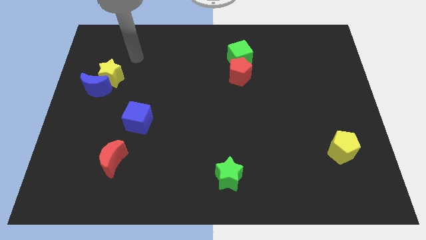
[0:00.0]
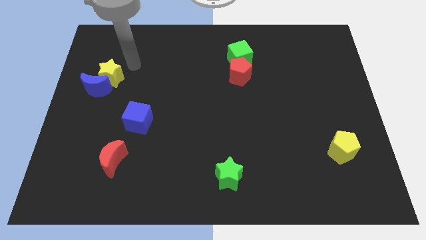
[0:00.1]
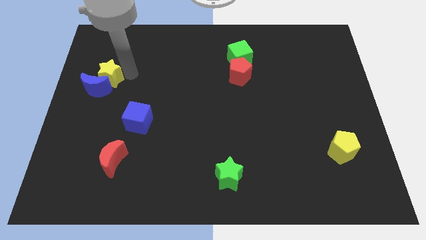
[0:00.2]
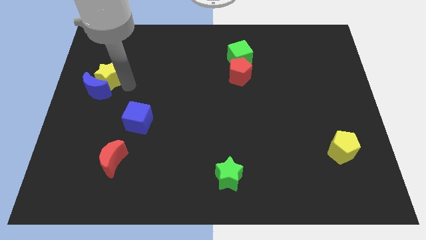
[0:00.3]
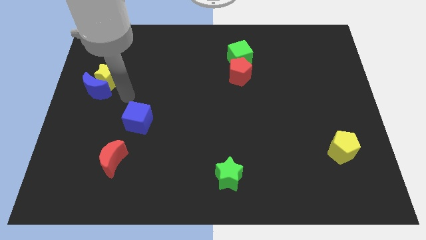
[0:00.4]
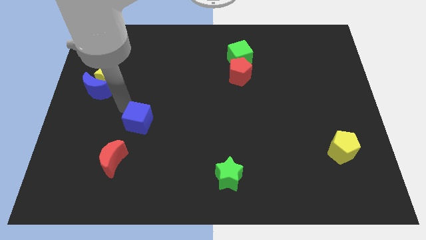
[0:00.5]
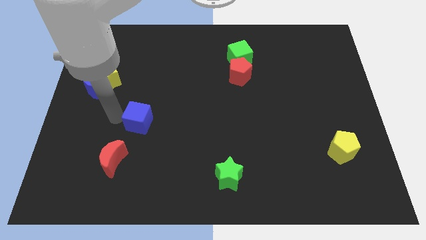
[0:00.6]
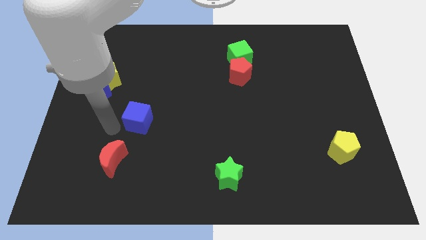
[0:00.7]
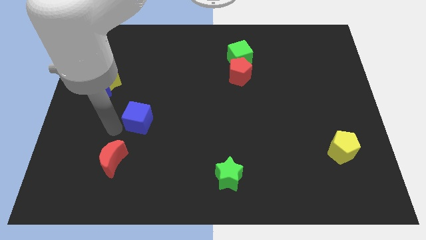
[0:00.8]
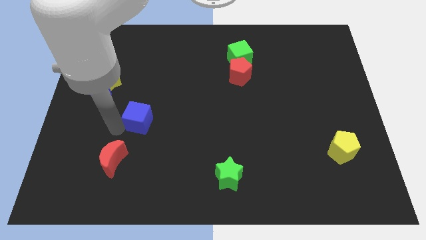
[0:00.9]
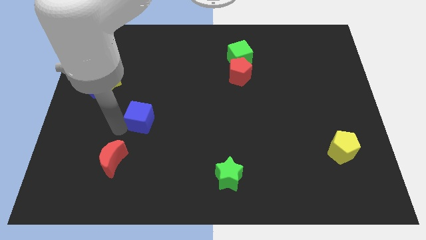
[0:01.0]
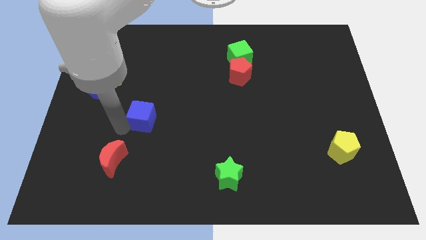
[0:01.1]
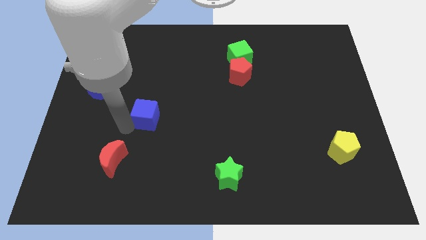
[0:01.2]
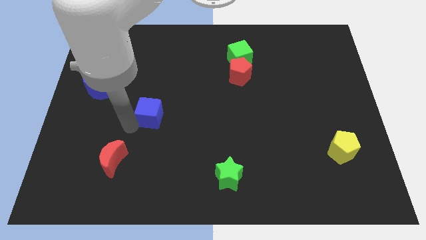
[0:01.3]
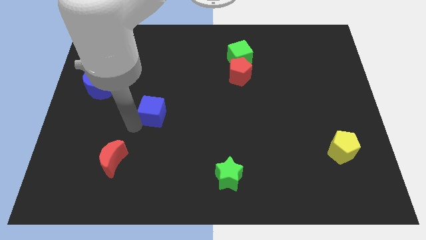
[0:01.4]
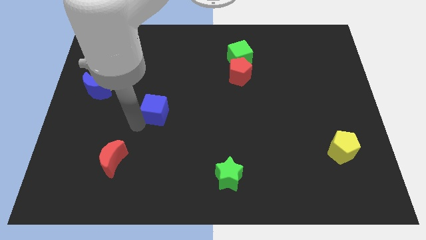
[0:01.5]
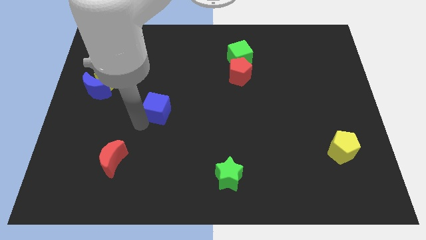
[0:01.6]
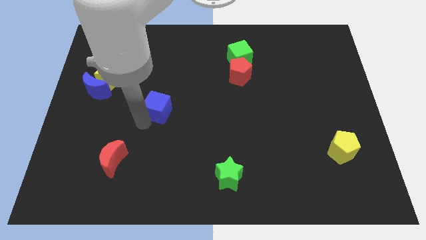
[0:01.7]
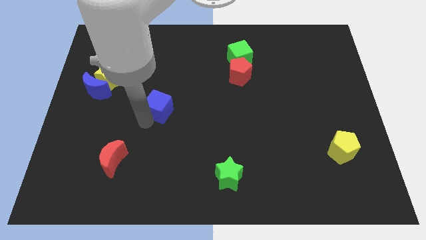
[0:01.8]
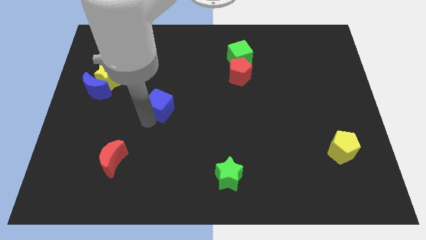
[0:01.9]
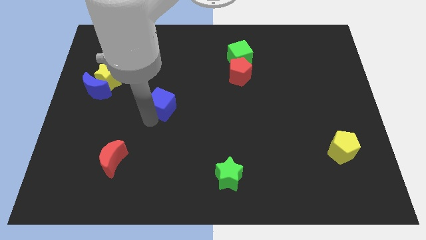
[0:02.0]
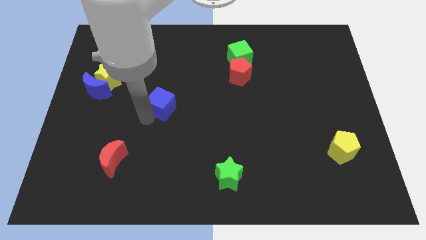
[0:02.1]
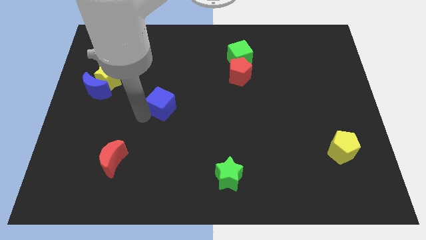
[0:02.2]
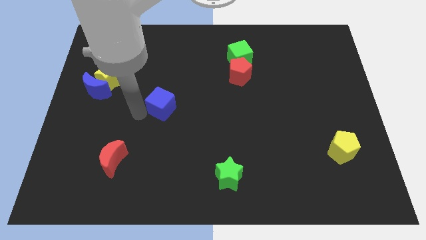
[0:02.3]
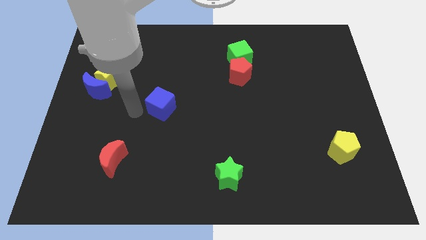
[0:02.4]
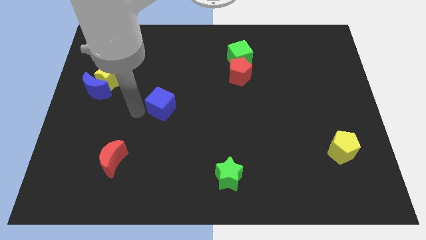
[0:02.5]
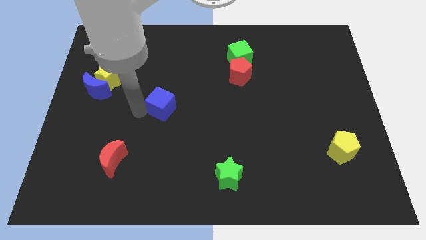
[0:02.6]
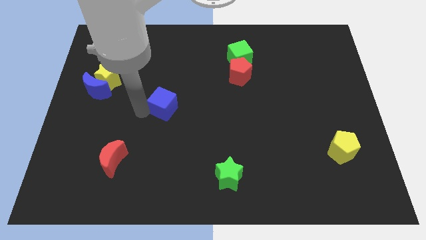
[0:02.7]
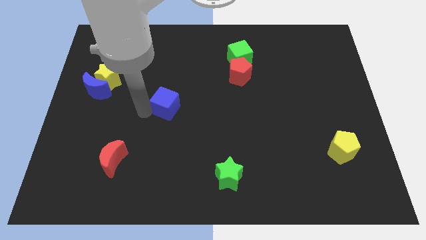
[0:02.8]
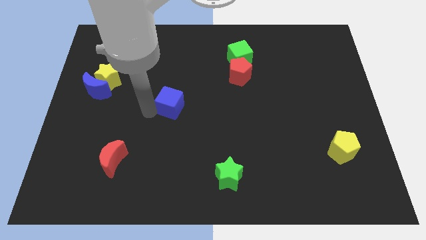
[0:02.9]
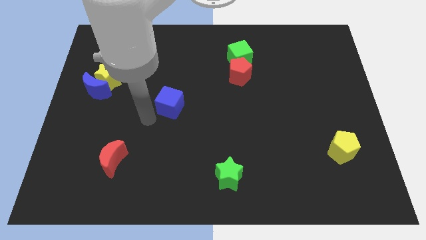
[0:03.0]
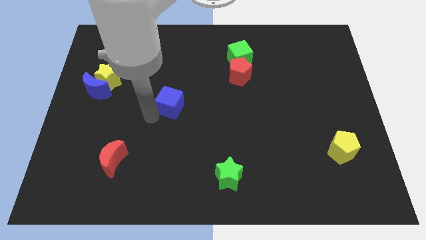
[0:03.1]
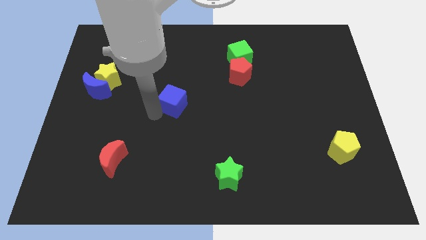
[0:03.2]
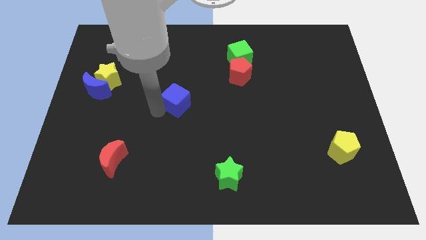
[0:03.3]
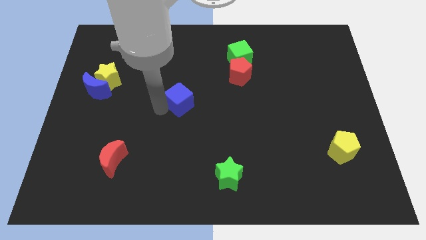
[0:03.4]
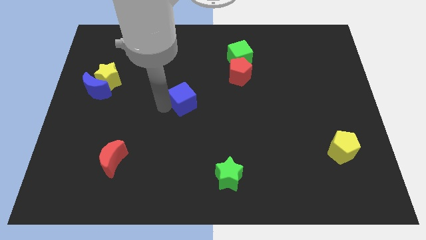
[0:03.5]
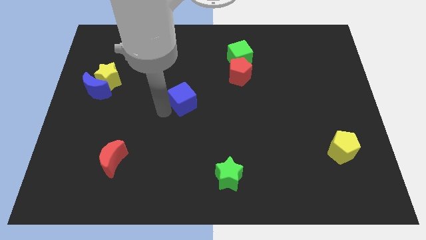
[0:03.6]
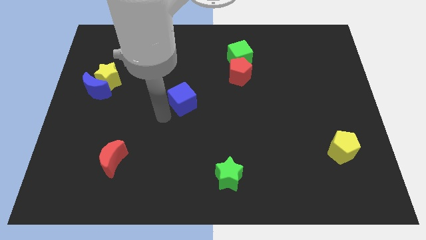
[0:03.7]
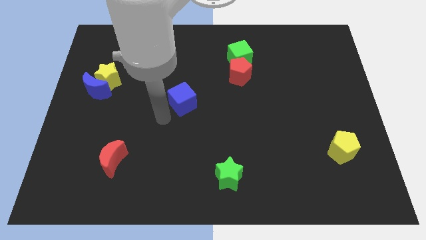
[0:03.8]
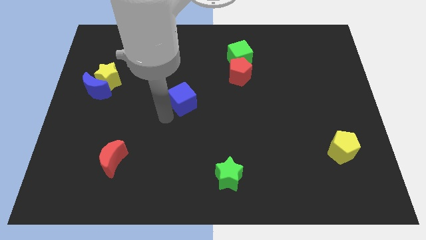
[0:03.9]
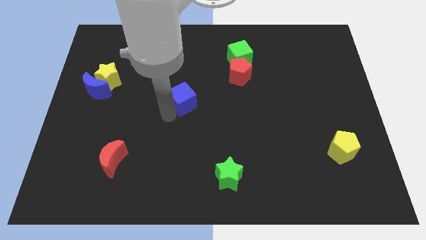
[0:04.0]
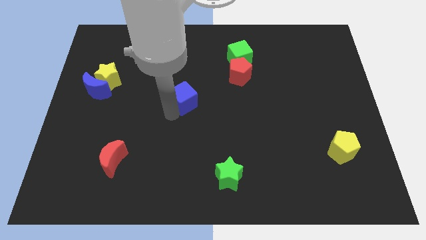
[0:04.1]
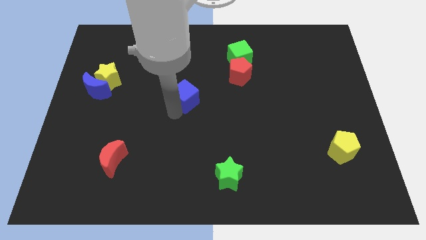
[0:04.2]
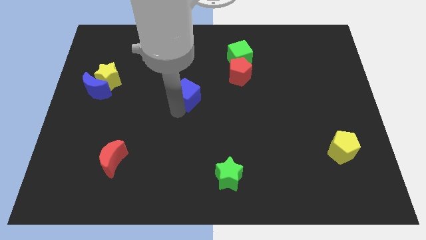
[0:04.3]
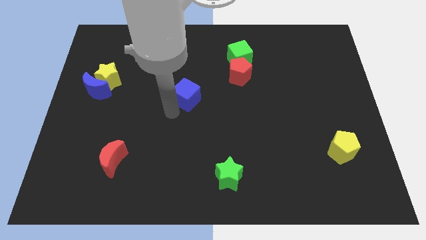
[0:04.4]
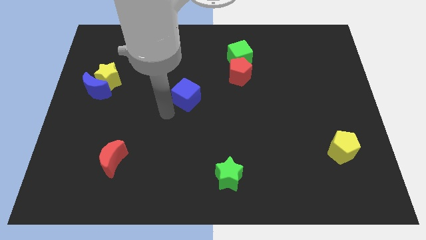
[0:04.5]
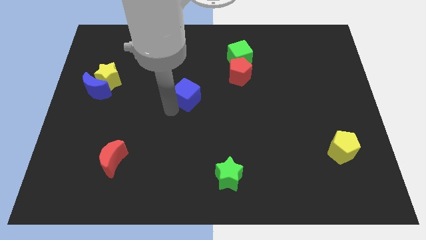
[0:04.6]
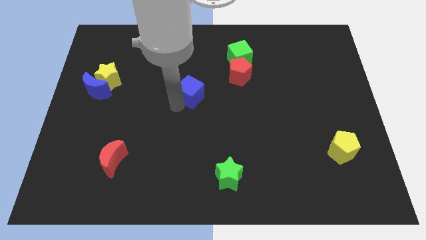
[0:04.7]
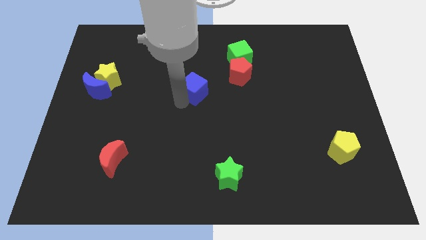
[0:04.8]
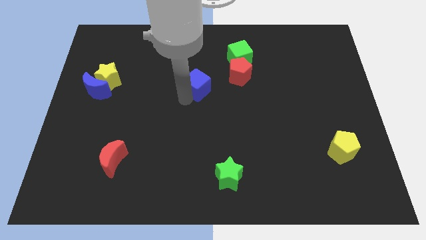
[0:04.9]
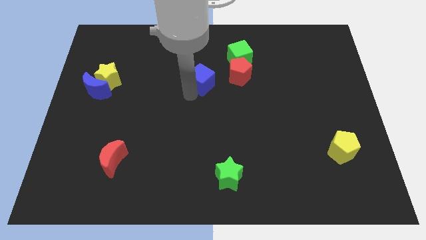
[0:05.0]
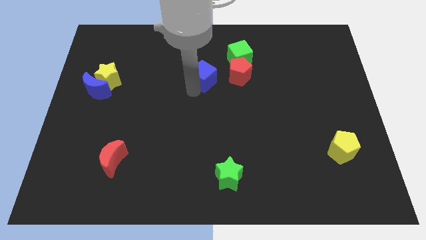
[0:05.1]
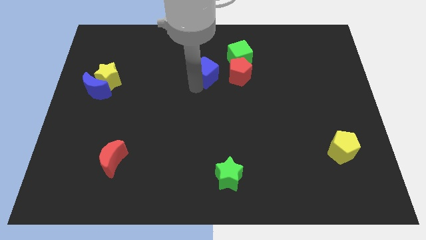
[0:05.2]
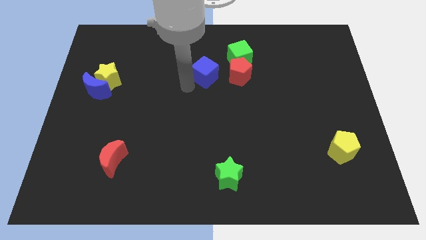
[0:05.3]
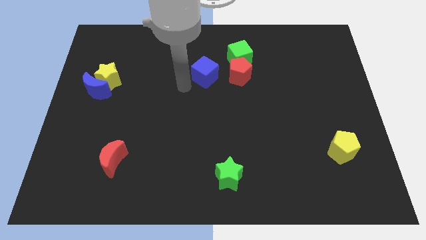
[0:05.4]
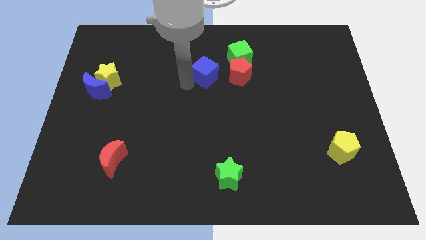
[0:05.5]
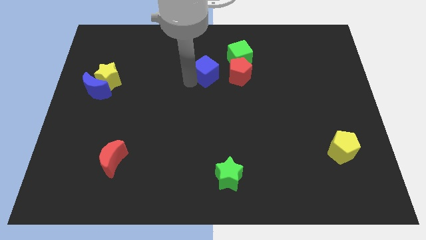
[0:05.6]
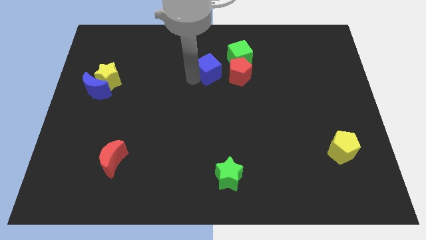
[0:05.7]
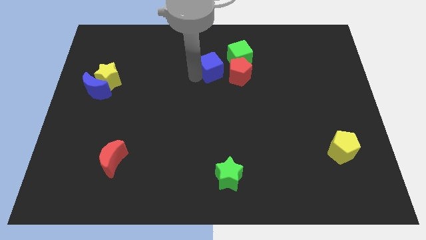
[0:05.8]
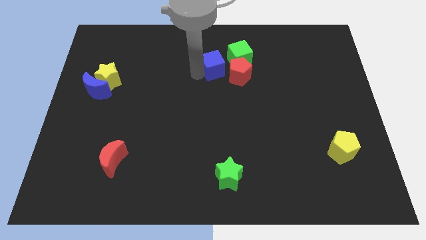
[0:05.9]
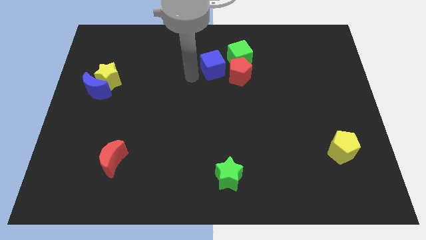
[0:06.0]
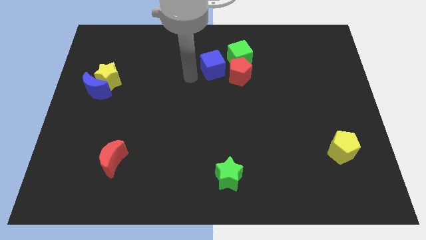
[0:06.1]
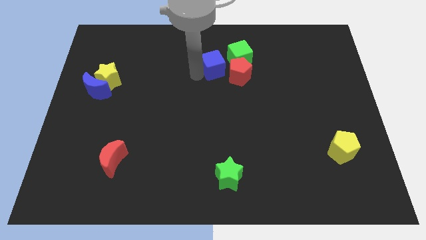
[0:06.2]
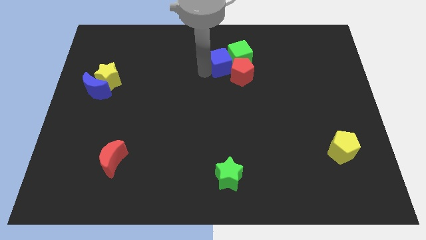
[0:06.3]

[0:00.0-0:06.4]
push the blue cube close to the green cube

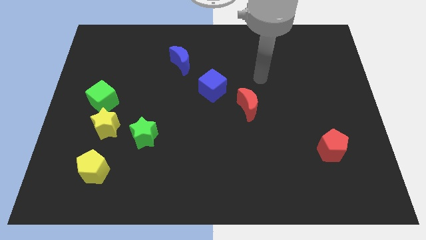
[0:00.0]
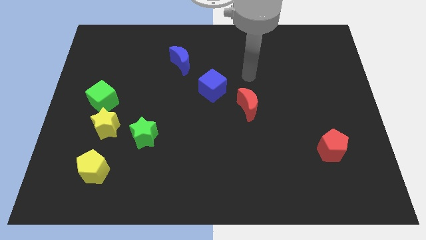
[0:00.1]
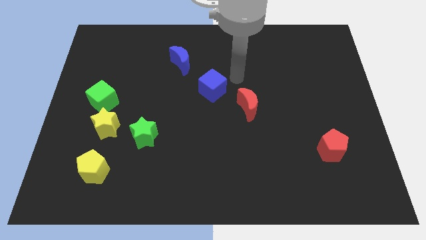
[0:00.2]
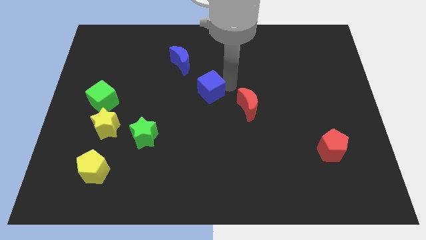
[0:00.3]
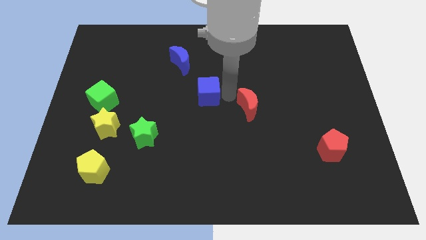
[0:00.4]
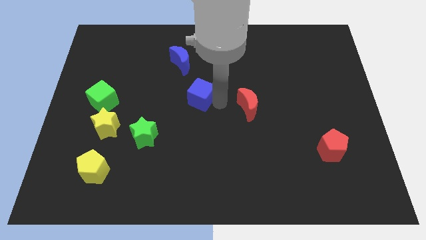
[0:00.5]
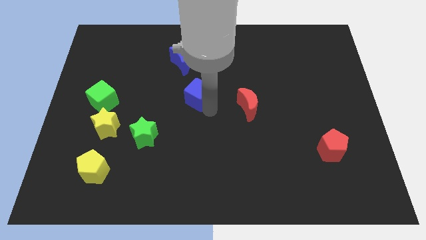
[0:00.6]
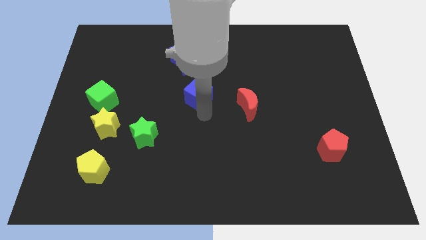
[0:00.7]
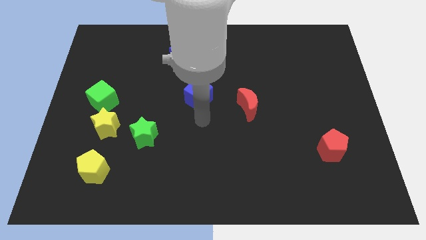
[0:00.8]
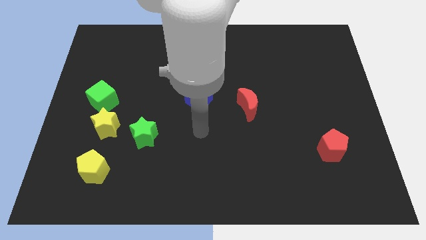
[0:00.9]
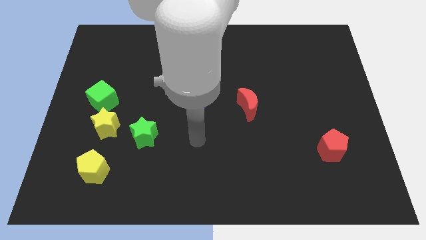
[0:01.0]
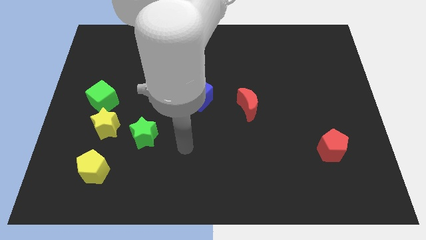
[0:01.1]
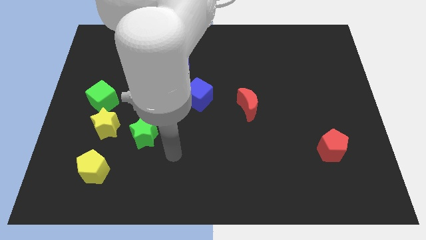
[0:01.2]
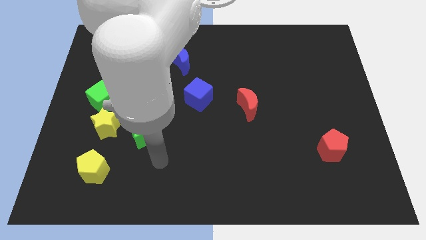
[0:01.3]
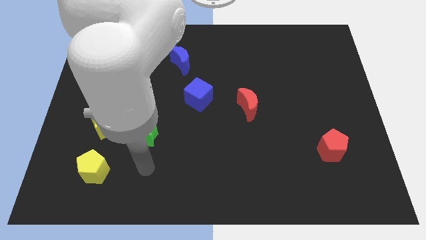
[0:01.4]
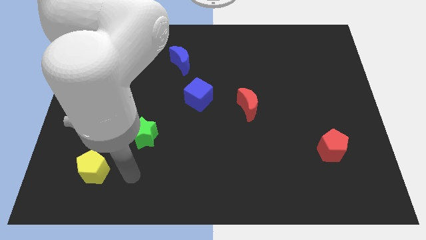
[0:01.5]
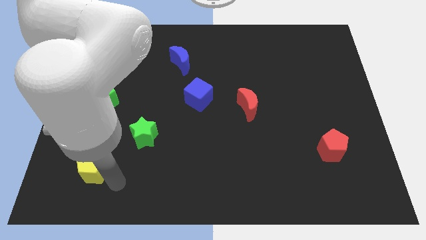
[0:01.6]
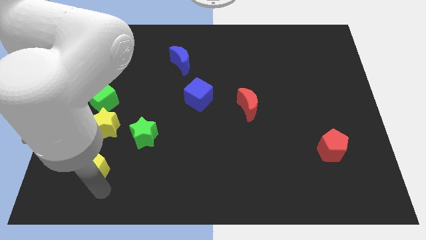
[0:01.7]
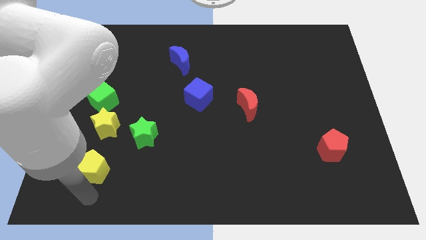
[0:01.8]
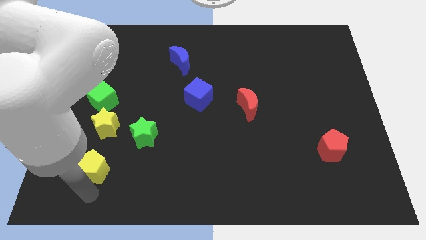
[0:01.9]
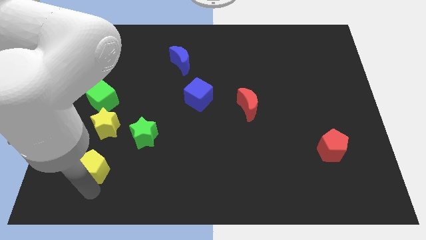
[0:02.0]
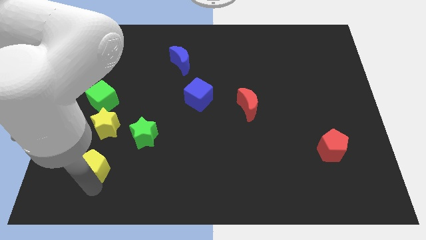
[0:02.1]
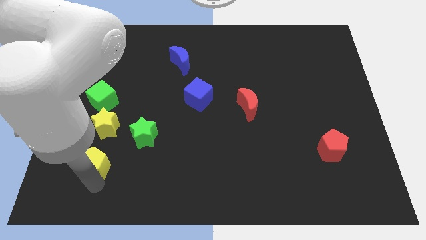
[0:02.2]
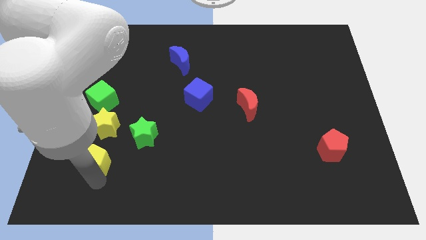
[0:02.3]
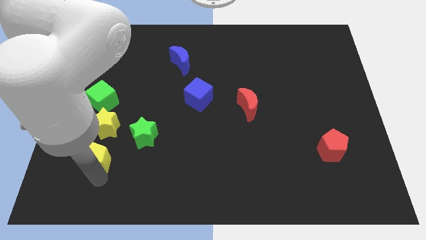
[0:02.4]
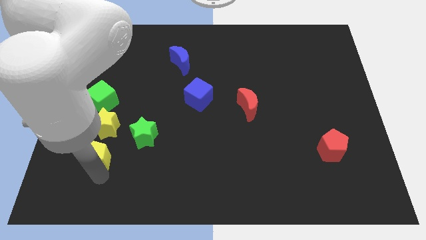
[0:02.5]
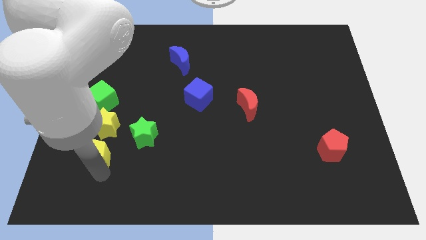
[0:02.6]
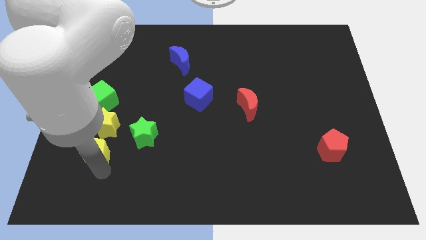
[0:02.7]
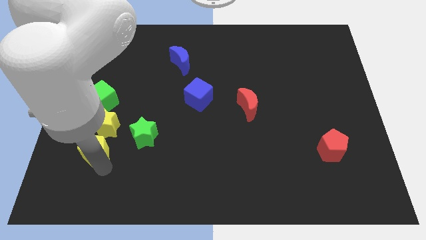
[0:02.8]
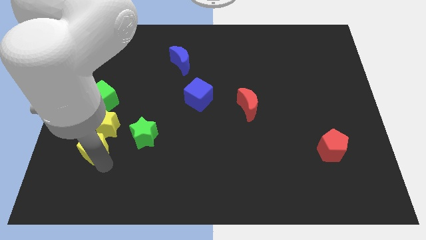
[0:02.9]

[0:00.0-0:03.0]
push the yellow pentagon to the yellow star
